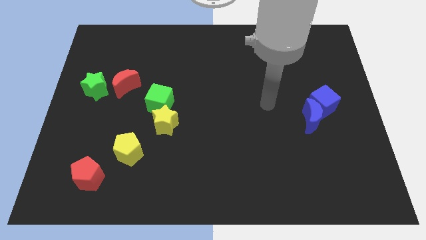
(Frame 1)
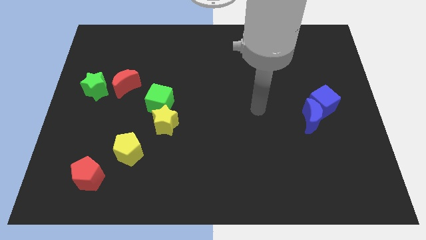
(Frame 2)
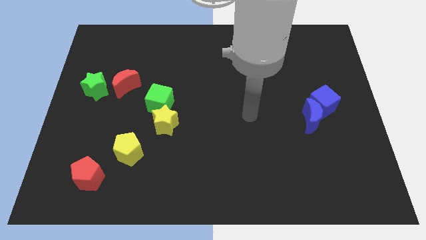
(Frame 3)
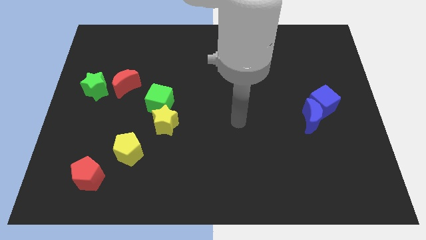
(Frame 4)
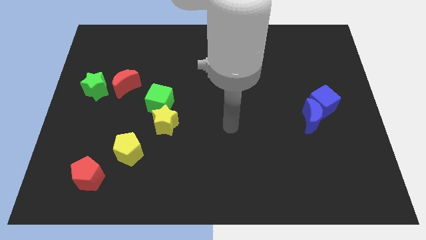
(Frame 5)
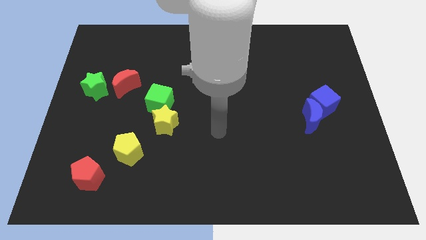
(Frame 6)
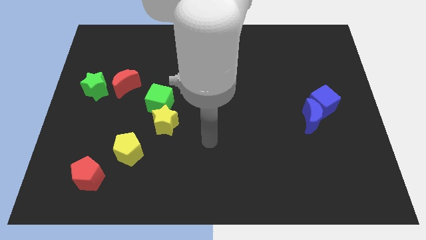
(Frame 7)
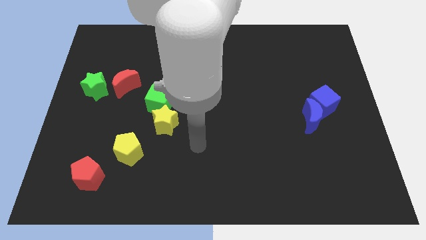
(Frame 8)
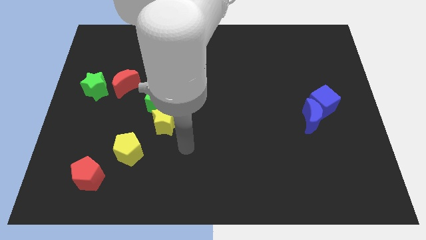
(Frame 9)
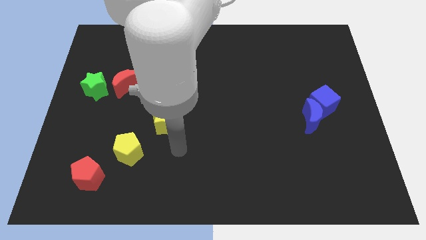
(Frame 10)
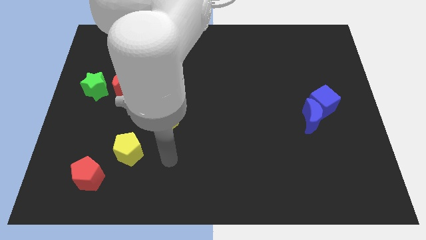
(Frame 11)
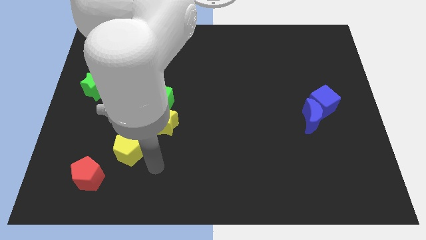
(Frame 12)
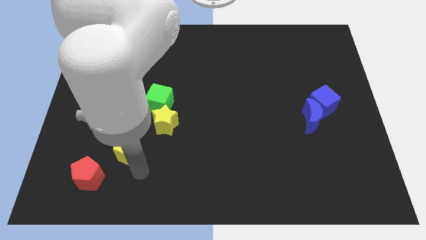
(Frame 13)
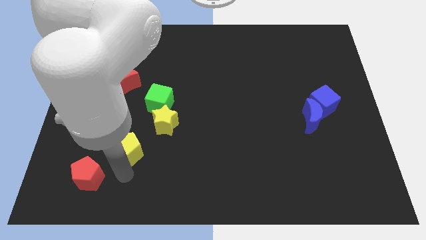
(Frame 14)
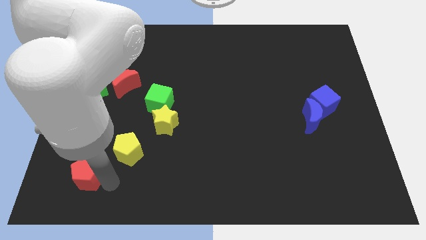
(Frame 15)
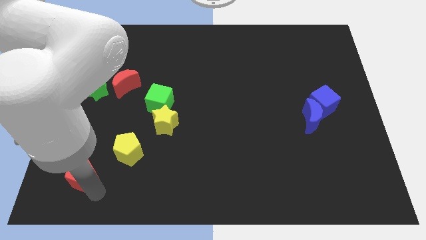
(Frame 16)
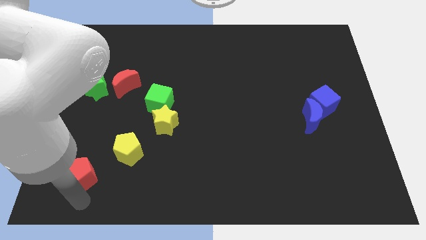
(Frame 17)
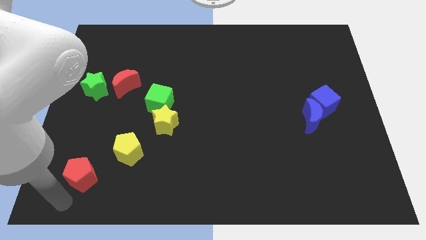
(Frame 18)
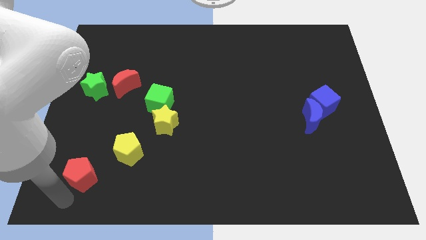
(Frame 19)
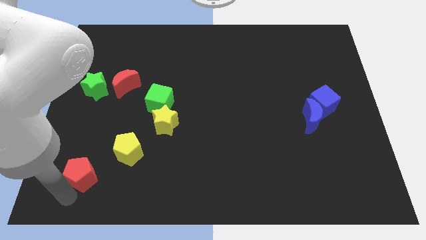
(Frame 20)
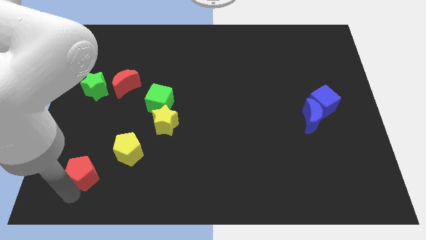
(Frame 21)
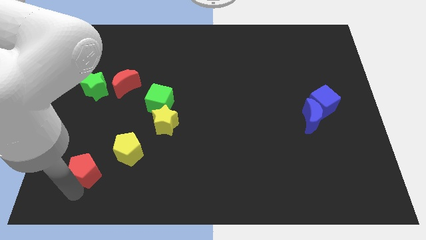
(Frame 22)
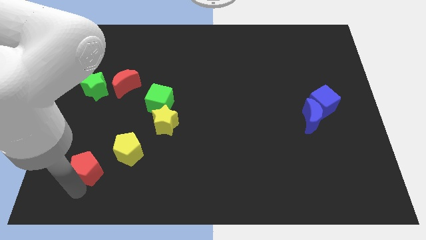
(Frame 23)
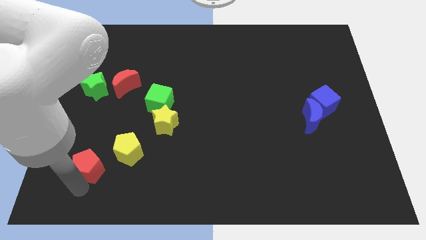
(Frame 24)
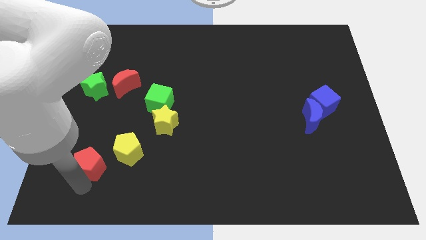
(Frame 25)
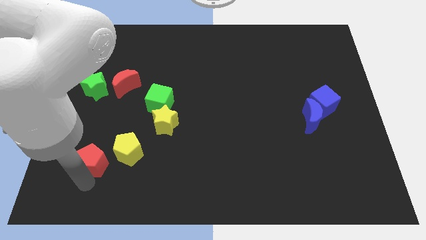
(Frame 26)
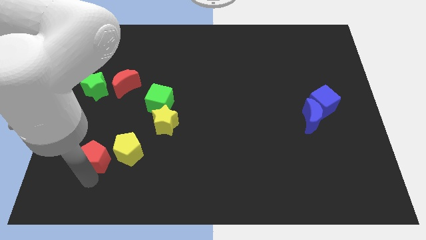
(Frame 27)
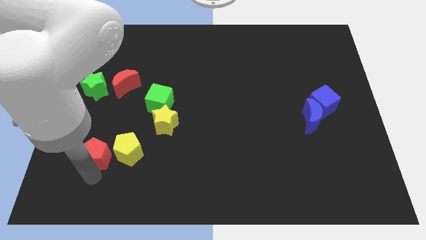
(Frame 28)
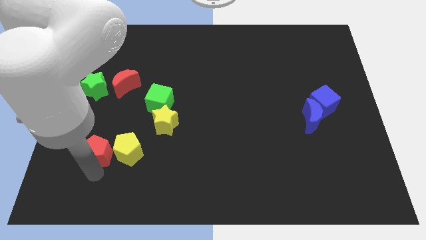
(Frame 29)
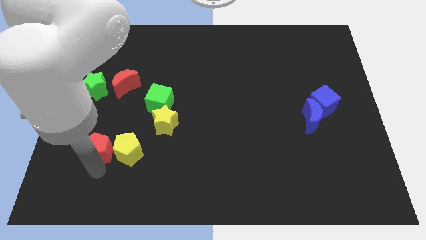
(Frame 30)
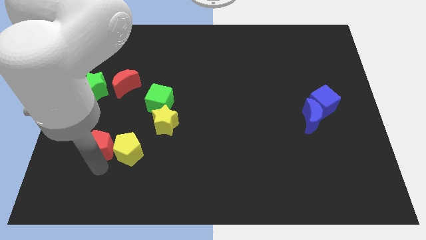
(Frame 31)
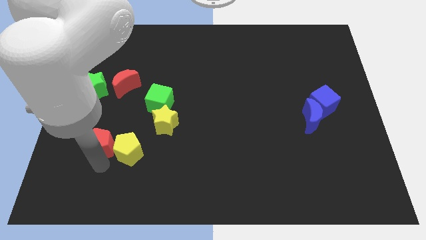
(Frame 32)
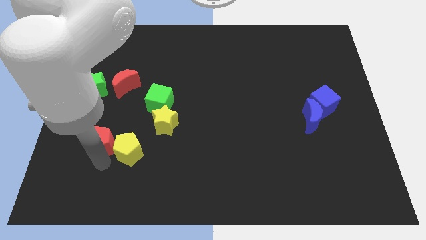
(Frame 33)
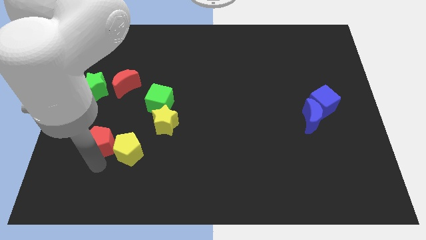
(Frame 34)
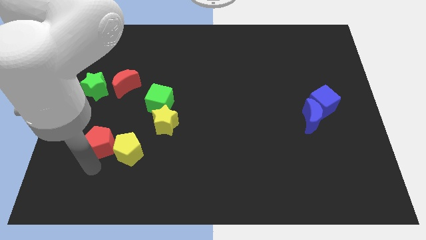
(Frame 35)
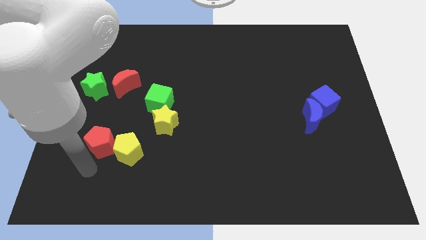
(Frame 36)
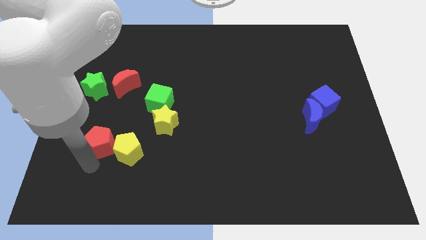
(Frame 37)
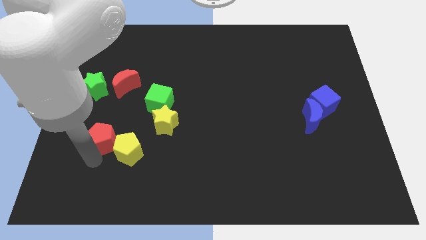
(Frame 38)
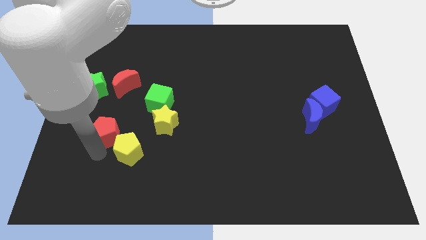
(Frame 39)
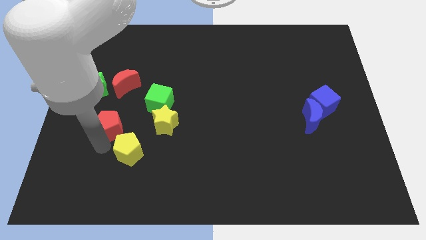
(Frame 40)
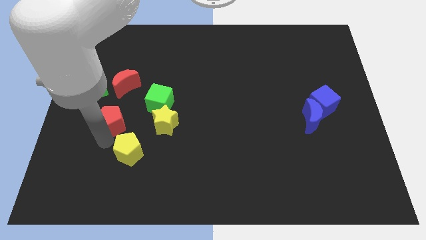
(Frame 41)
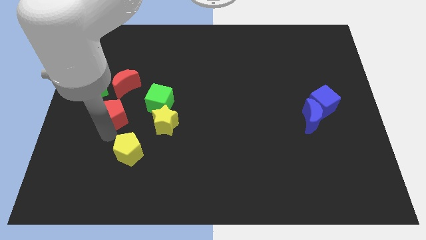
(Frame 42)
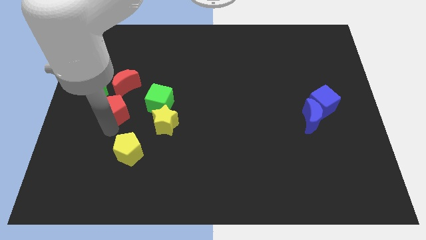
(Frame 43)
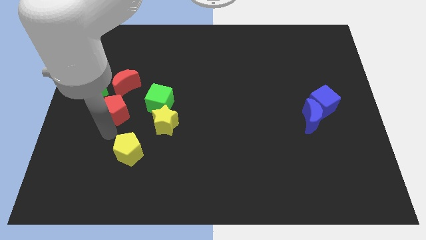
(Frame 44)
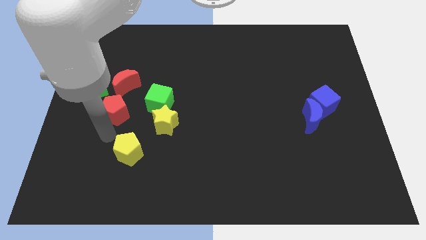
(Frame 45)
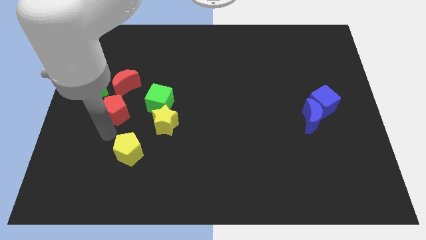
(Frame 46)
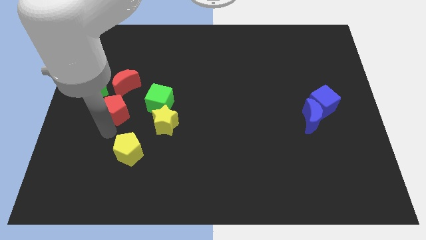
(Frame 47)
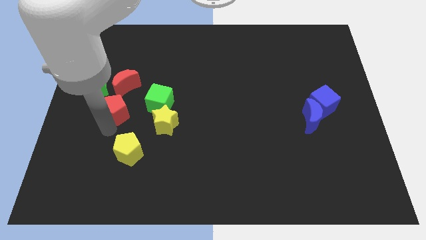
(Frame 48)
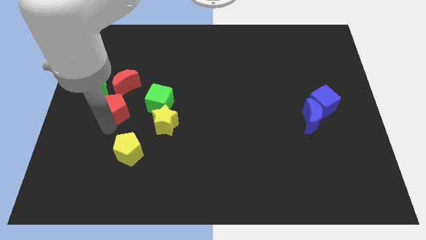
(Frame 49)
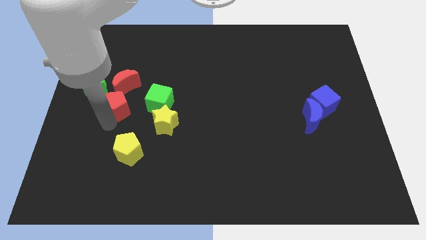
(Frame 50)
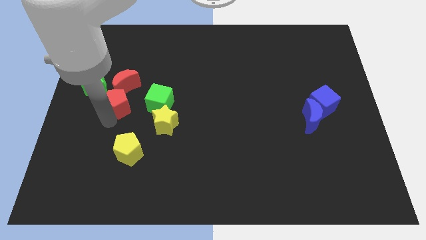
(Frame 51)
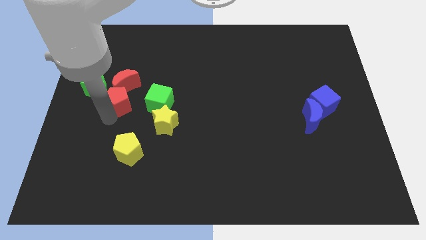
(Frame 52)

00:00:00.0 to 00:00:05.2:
put the red pentagon close to the red moon

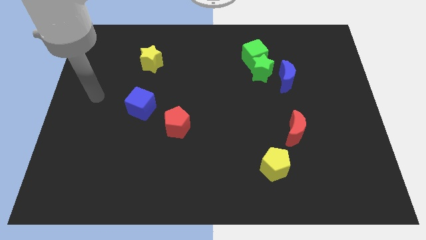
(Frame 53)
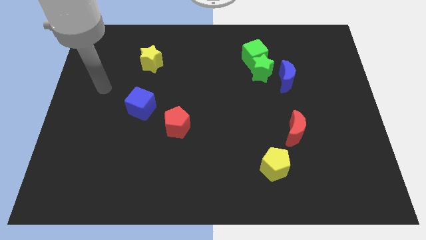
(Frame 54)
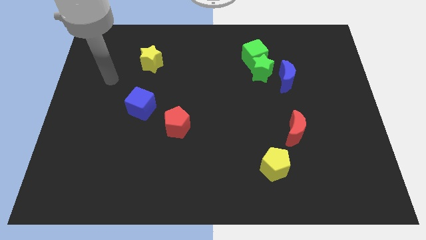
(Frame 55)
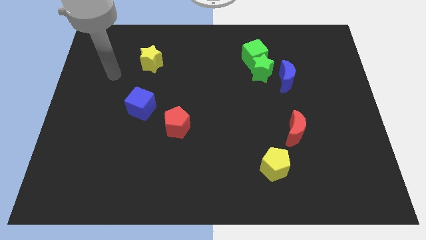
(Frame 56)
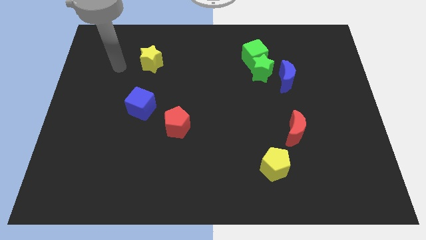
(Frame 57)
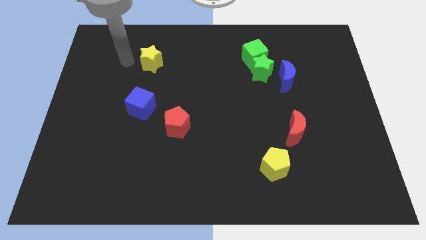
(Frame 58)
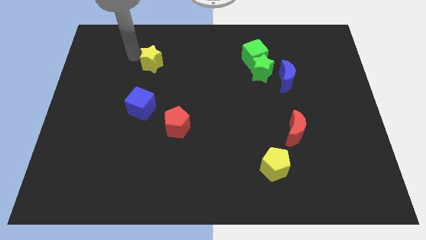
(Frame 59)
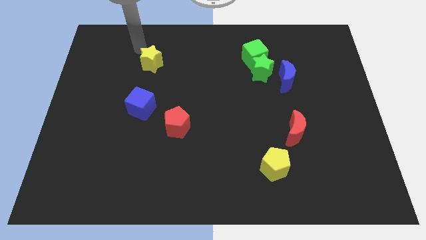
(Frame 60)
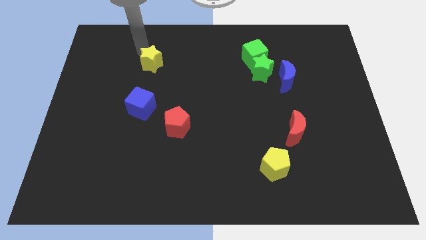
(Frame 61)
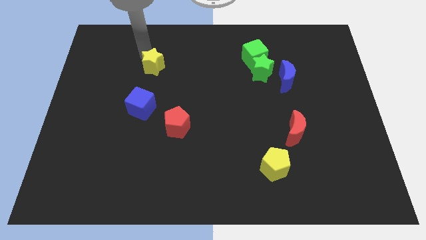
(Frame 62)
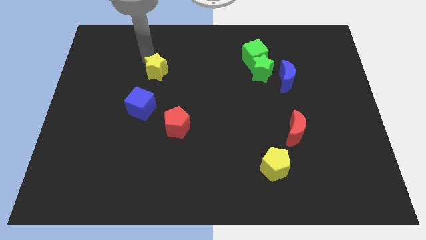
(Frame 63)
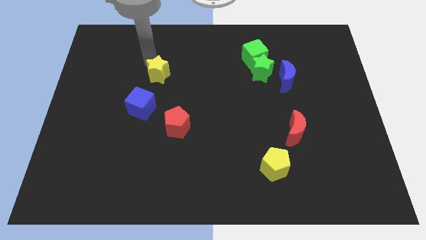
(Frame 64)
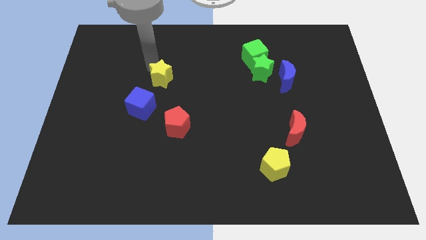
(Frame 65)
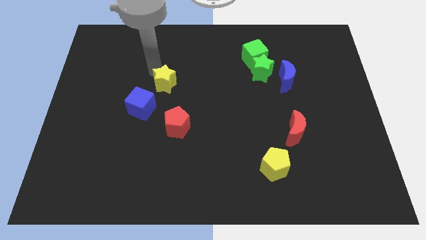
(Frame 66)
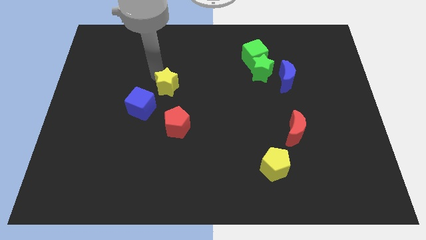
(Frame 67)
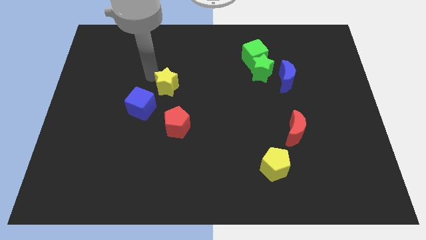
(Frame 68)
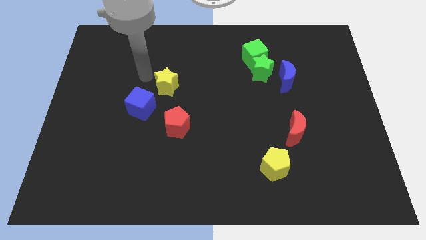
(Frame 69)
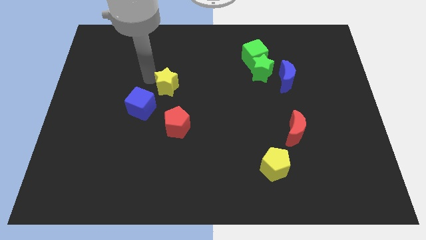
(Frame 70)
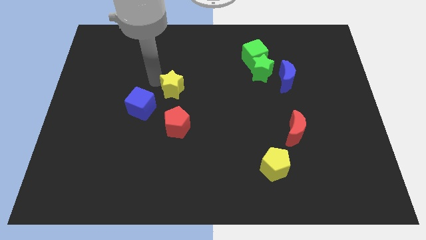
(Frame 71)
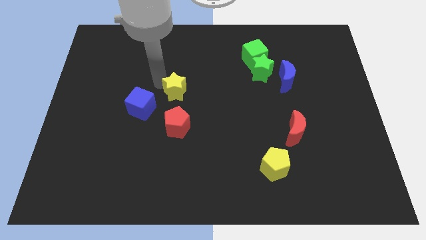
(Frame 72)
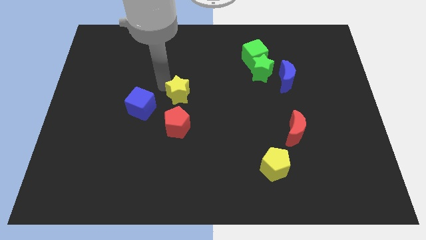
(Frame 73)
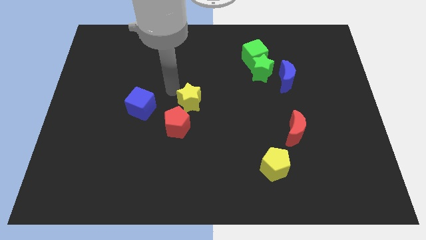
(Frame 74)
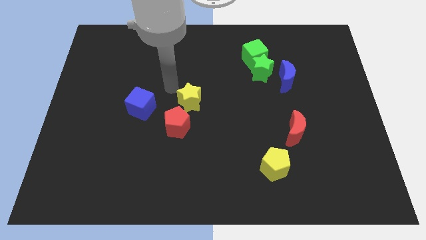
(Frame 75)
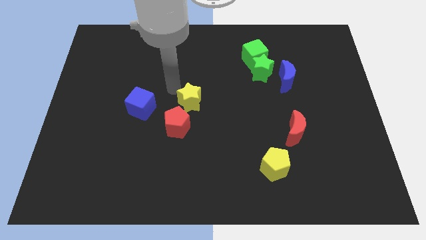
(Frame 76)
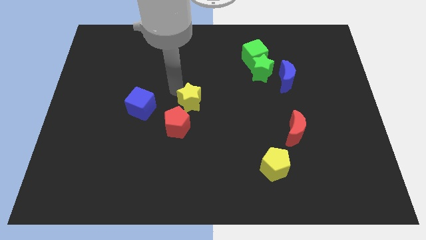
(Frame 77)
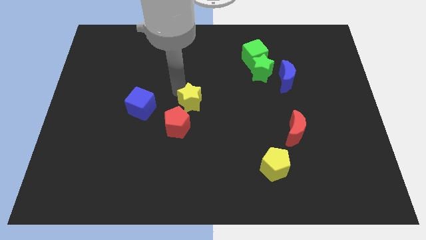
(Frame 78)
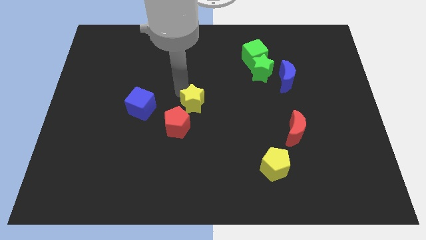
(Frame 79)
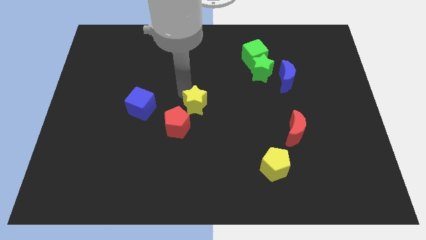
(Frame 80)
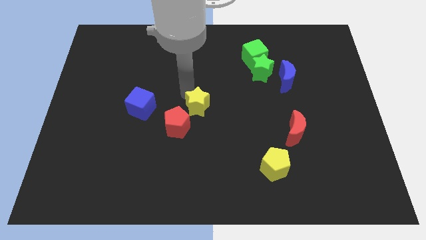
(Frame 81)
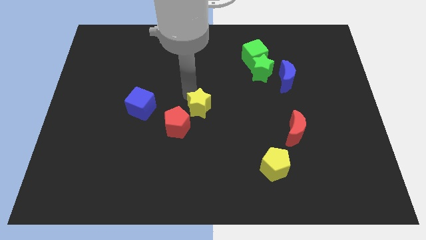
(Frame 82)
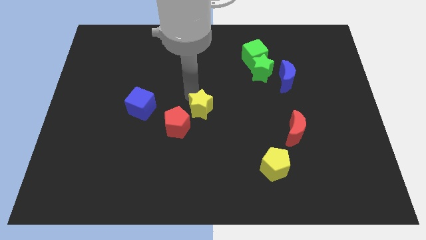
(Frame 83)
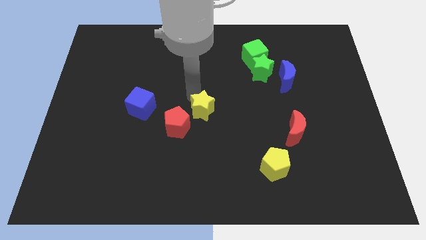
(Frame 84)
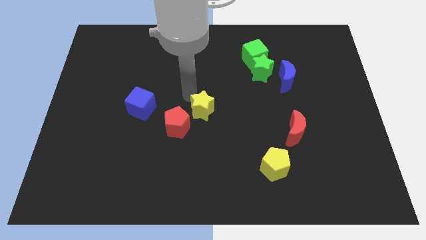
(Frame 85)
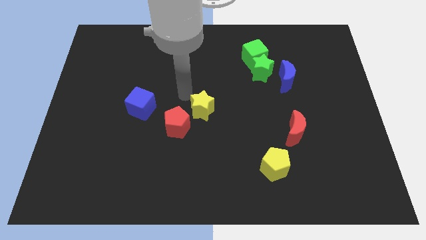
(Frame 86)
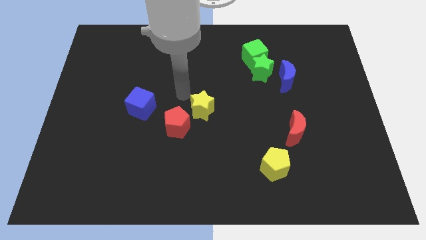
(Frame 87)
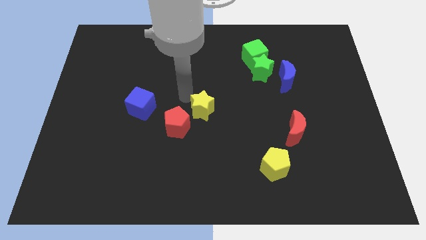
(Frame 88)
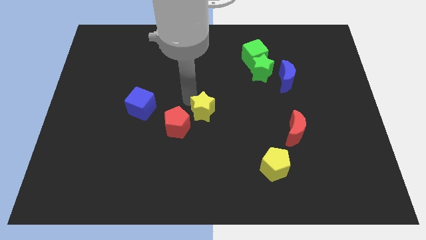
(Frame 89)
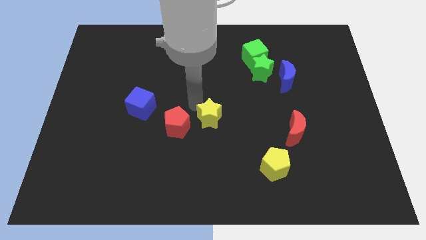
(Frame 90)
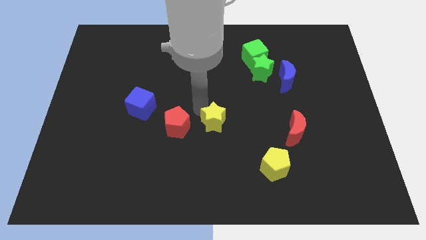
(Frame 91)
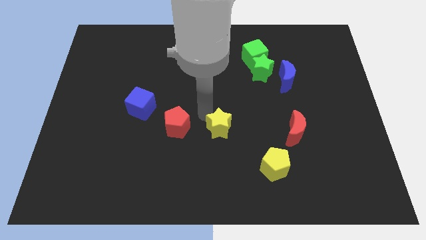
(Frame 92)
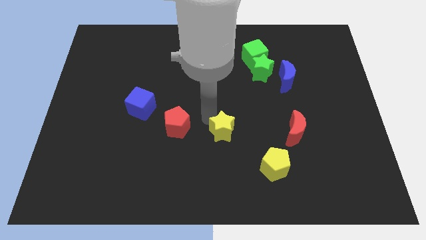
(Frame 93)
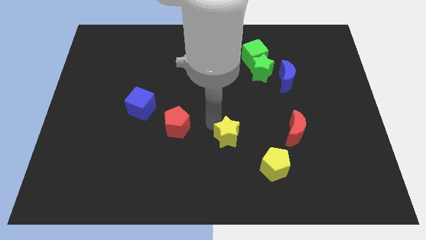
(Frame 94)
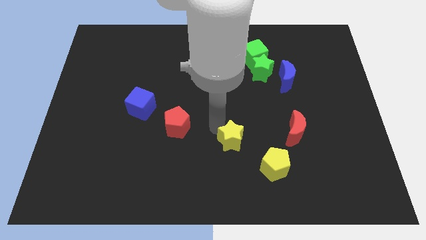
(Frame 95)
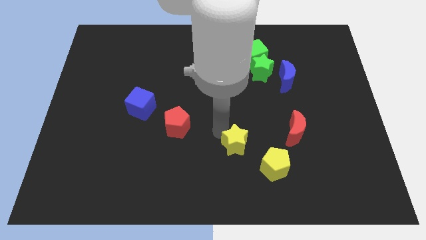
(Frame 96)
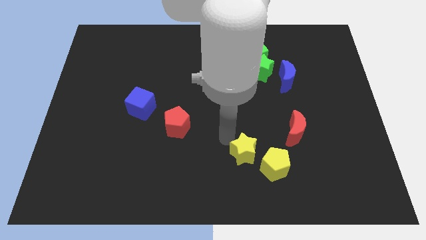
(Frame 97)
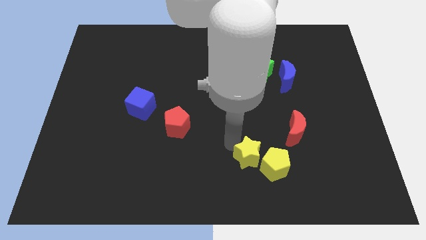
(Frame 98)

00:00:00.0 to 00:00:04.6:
push the yellow star towards the yellow pentagon
